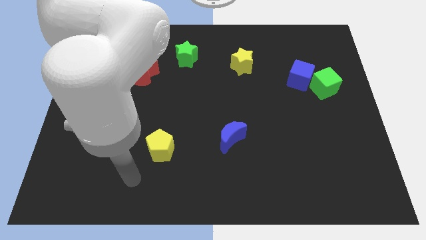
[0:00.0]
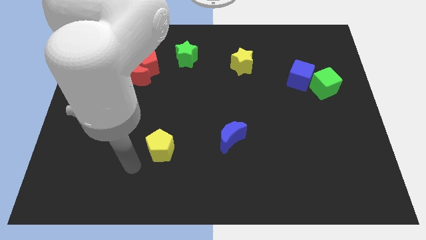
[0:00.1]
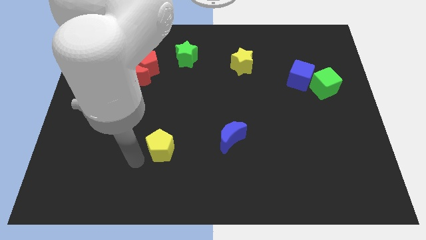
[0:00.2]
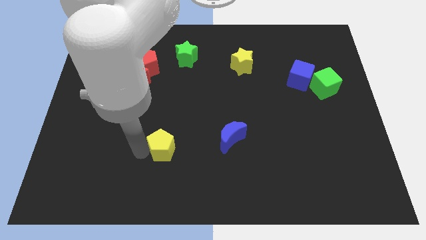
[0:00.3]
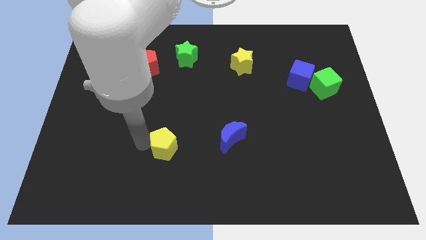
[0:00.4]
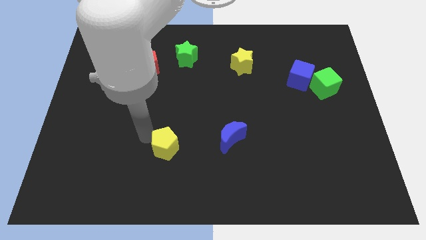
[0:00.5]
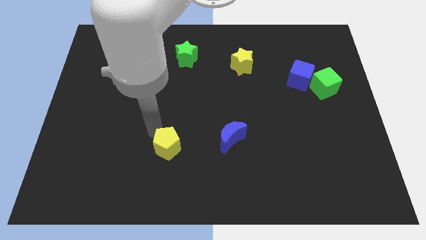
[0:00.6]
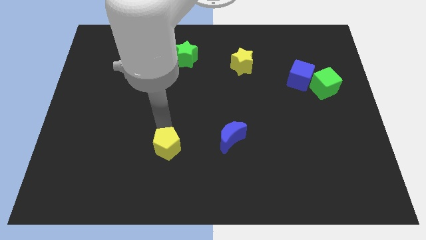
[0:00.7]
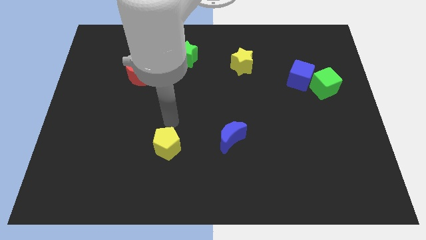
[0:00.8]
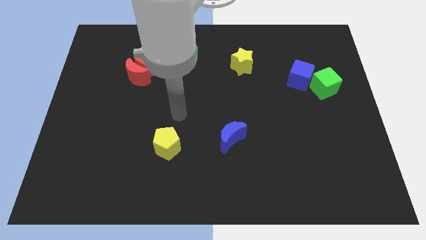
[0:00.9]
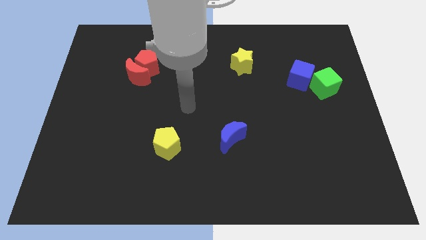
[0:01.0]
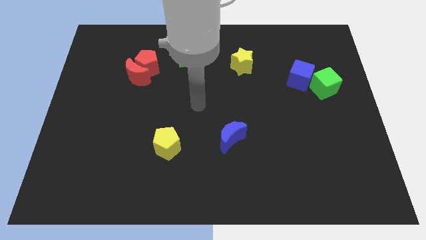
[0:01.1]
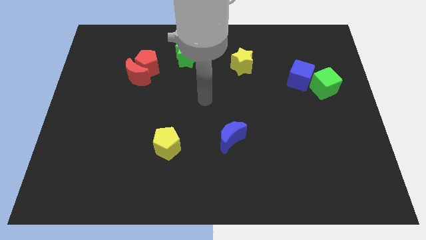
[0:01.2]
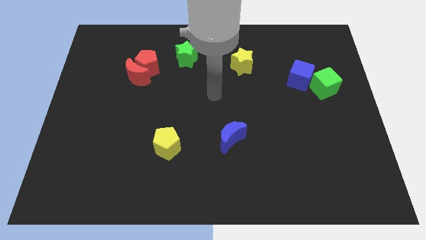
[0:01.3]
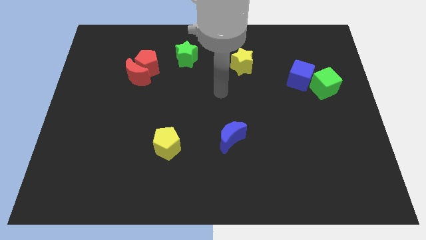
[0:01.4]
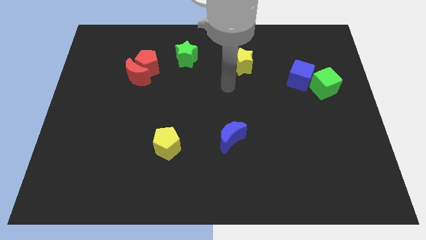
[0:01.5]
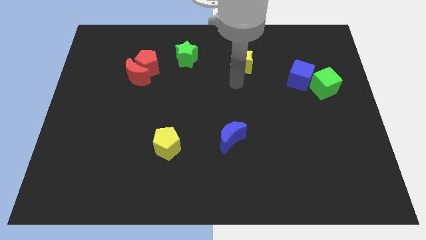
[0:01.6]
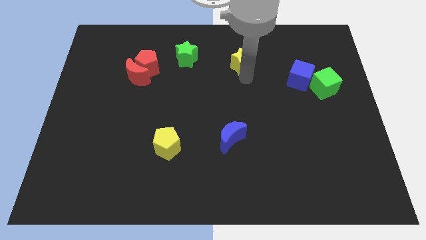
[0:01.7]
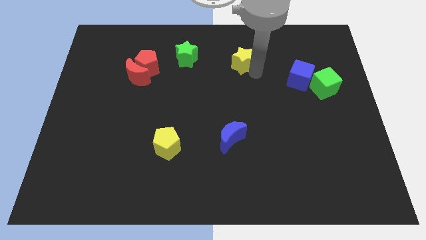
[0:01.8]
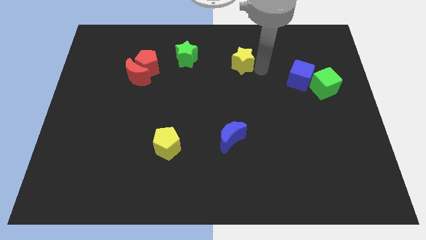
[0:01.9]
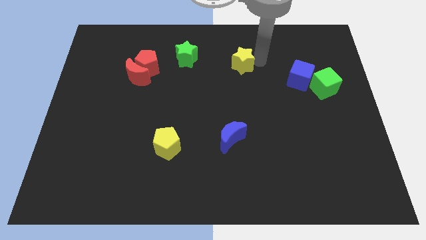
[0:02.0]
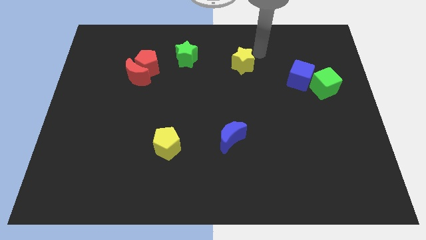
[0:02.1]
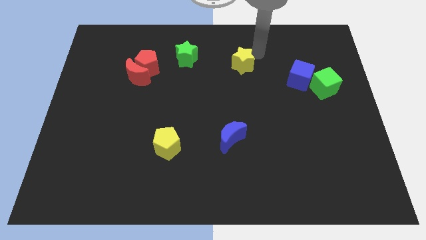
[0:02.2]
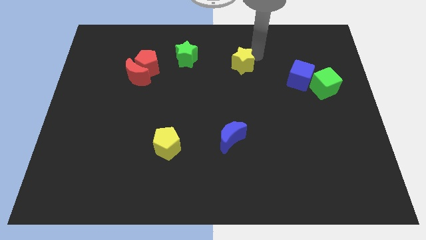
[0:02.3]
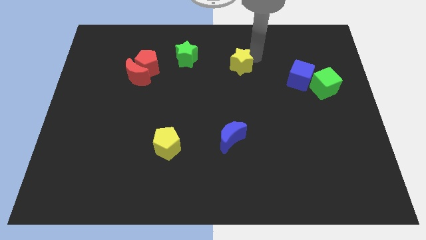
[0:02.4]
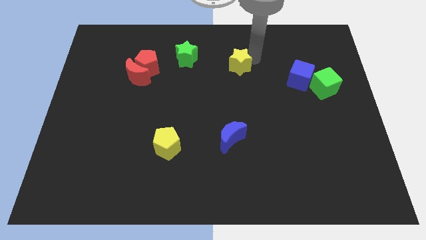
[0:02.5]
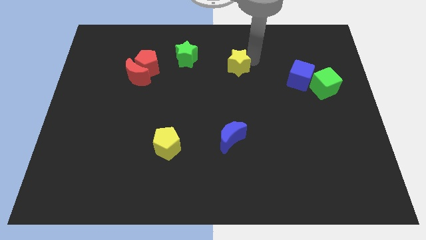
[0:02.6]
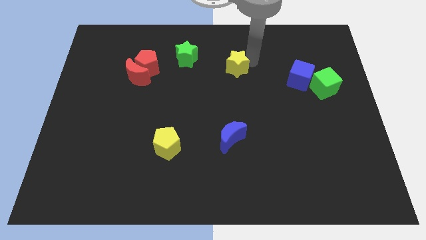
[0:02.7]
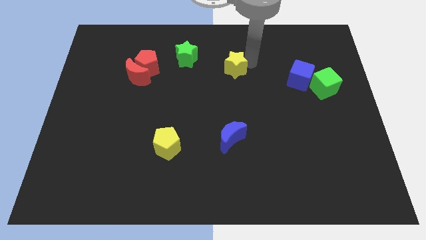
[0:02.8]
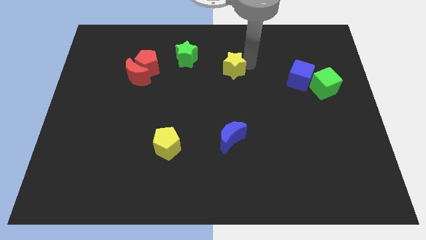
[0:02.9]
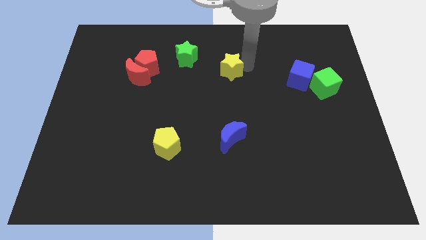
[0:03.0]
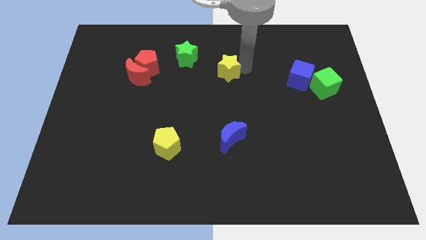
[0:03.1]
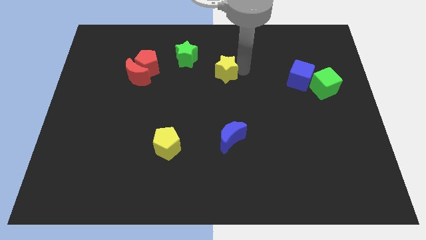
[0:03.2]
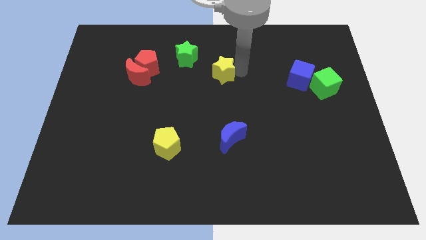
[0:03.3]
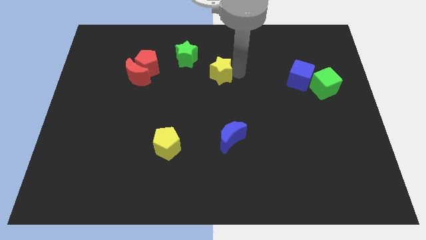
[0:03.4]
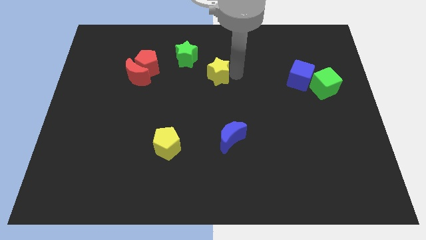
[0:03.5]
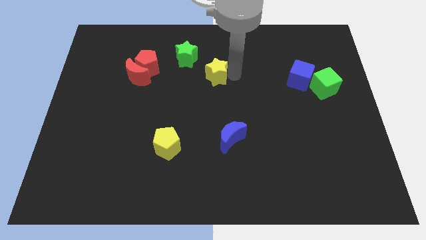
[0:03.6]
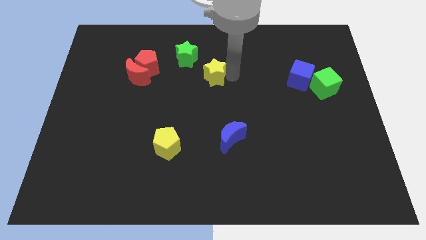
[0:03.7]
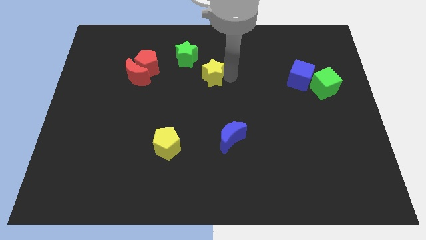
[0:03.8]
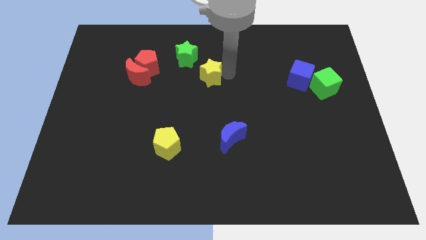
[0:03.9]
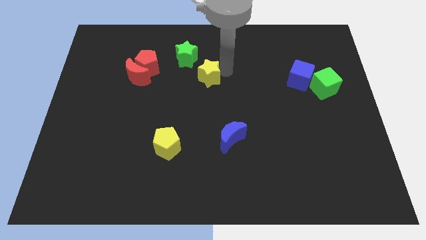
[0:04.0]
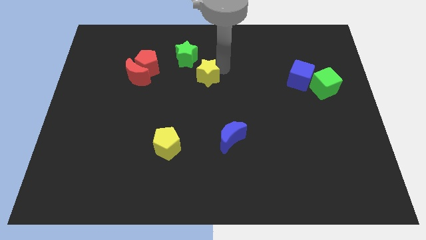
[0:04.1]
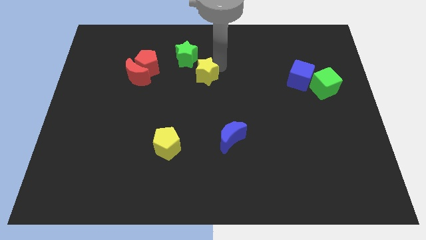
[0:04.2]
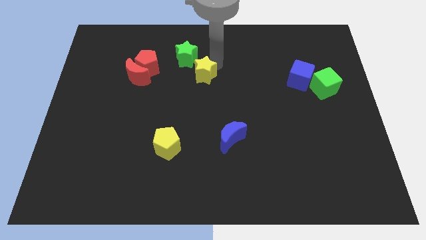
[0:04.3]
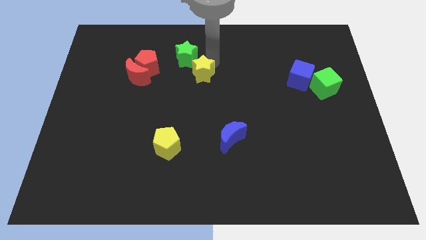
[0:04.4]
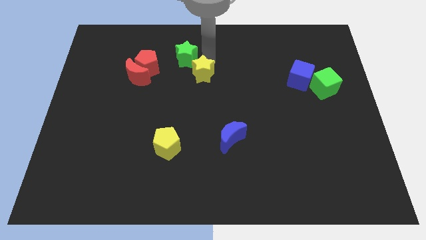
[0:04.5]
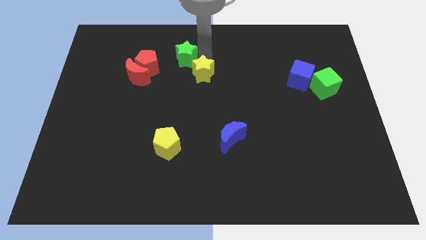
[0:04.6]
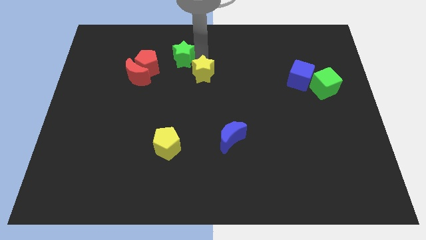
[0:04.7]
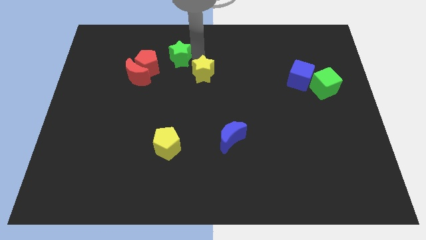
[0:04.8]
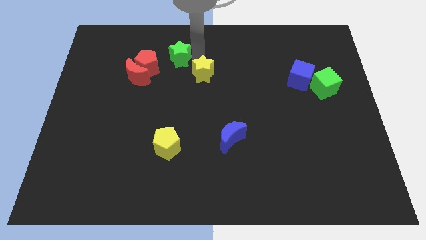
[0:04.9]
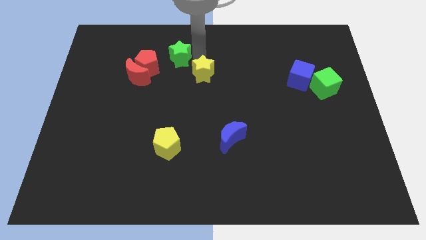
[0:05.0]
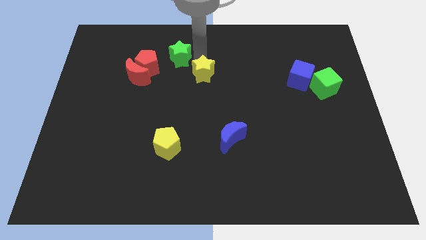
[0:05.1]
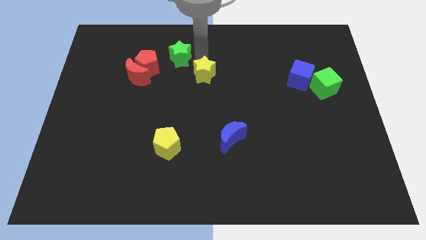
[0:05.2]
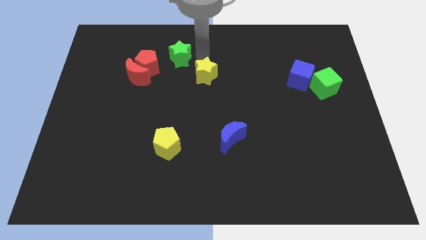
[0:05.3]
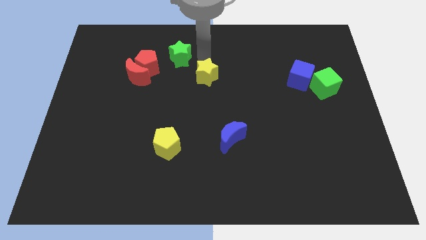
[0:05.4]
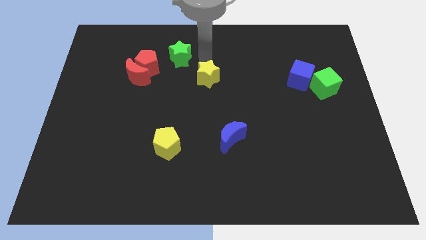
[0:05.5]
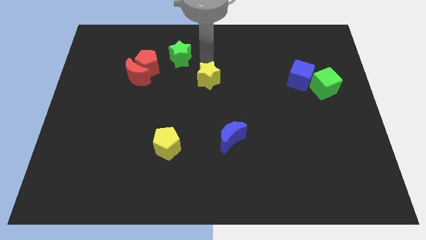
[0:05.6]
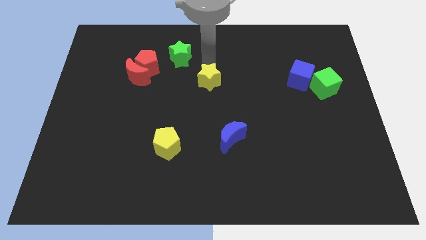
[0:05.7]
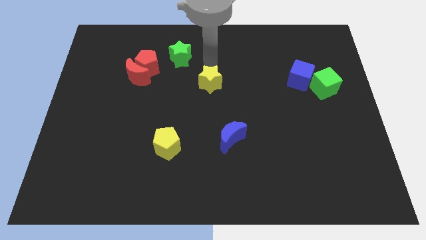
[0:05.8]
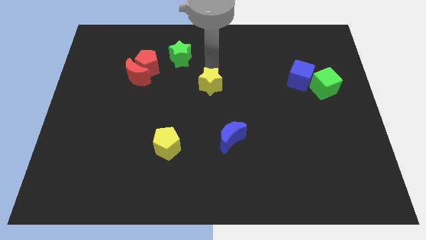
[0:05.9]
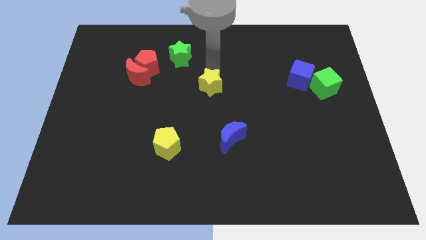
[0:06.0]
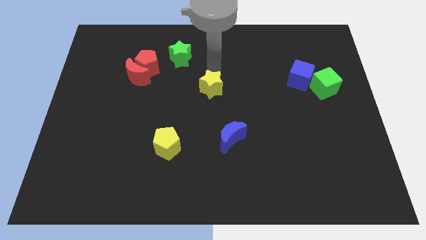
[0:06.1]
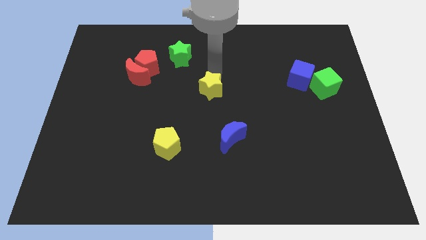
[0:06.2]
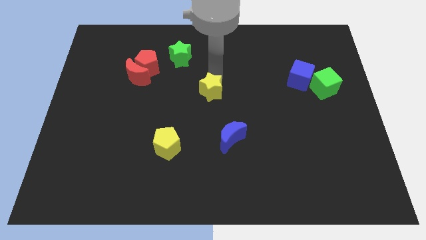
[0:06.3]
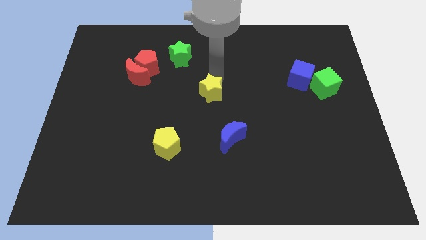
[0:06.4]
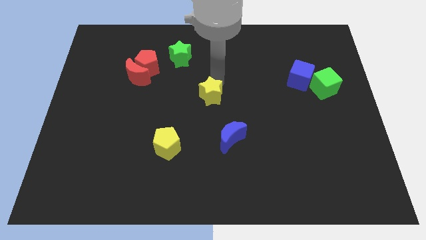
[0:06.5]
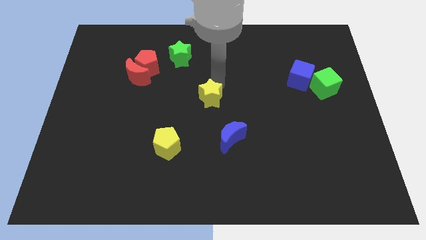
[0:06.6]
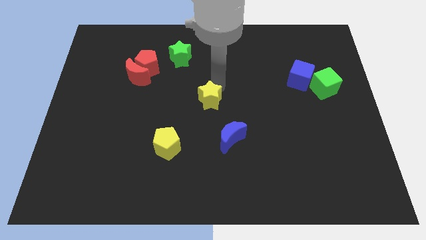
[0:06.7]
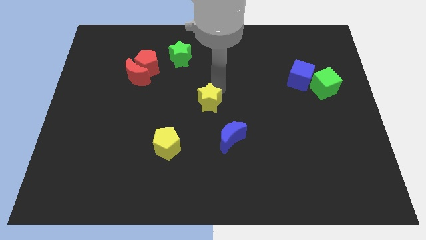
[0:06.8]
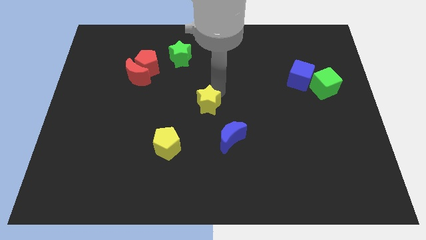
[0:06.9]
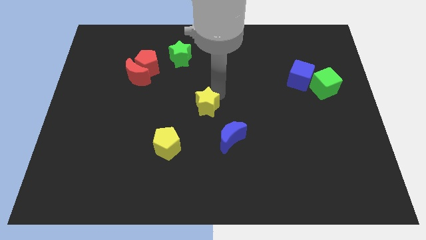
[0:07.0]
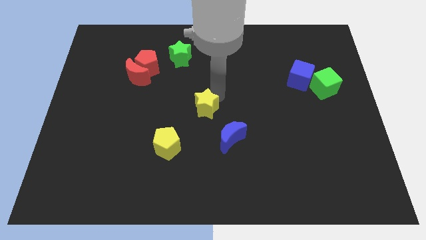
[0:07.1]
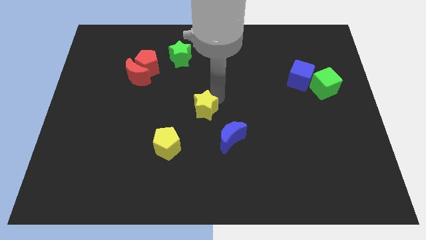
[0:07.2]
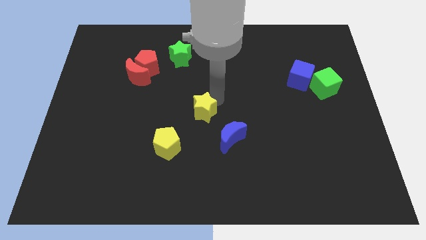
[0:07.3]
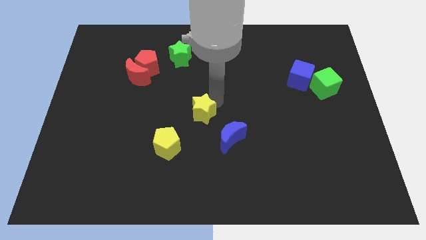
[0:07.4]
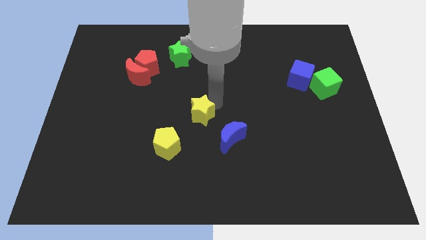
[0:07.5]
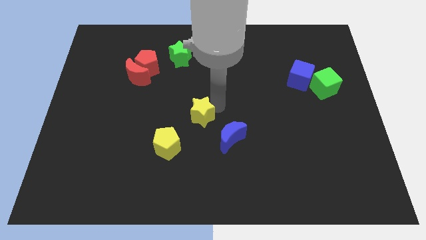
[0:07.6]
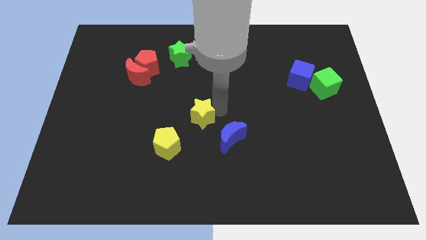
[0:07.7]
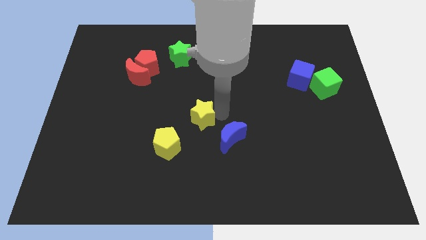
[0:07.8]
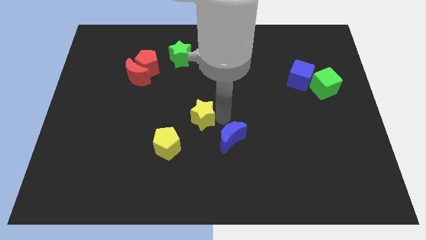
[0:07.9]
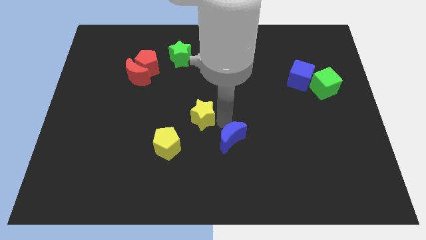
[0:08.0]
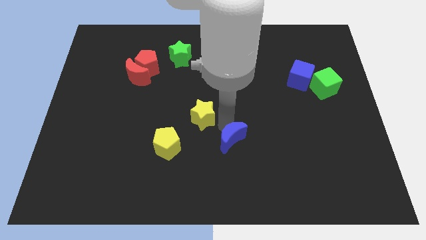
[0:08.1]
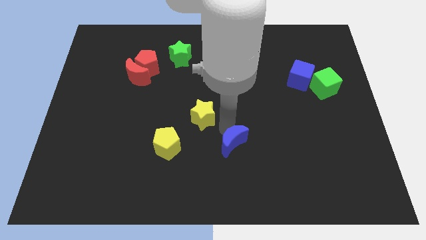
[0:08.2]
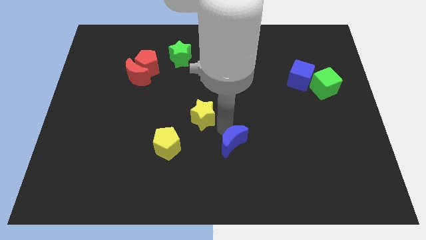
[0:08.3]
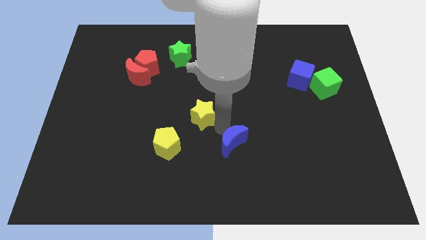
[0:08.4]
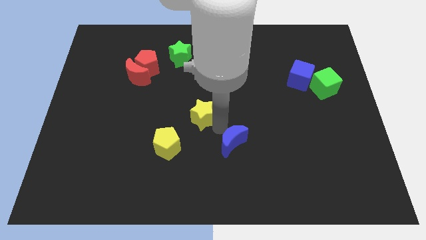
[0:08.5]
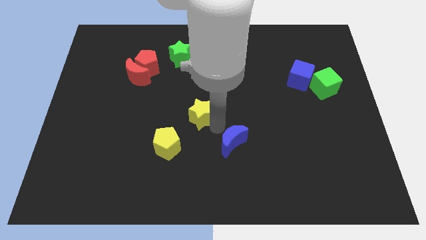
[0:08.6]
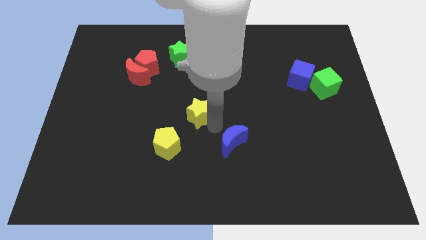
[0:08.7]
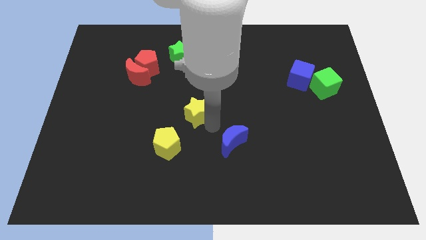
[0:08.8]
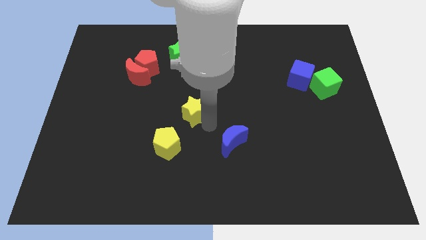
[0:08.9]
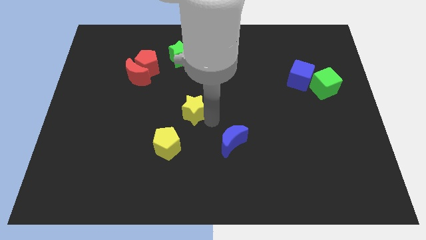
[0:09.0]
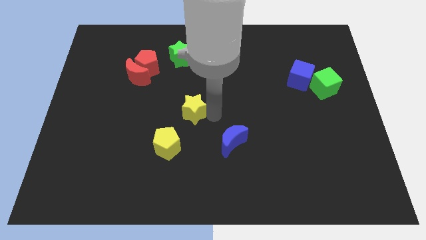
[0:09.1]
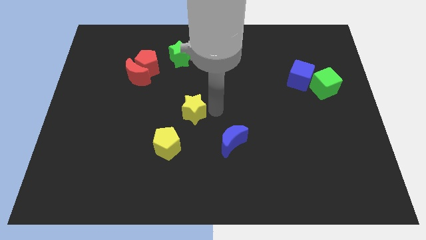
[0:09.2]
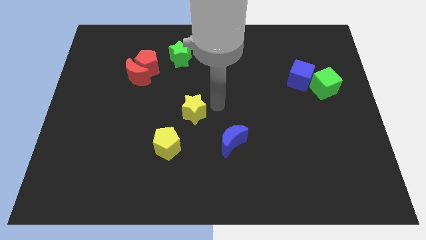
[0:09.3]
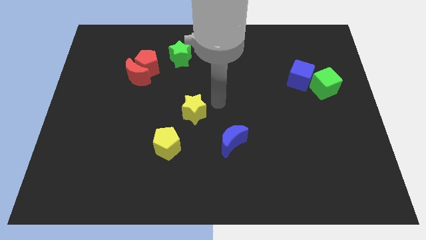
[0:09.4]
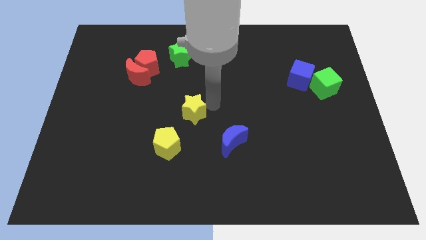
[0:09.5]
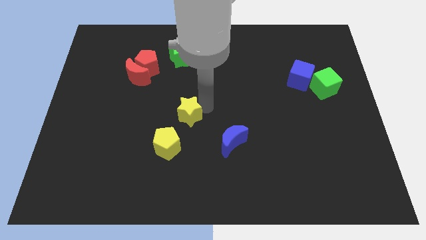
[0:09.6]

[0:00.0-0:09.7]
slide the yellow star diagonally down and left
